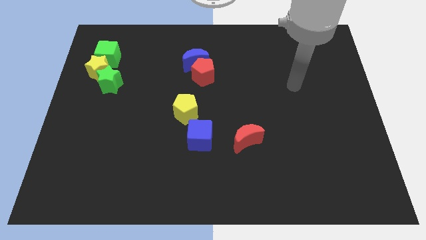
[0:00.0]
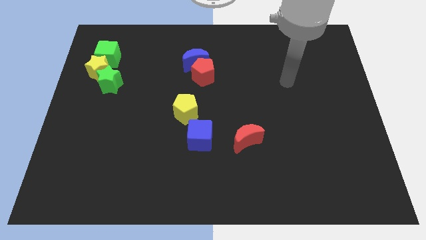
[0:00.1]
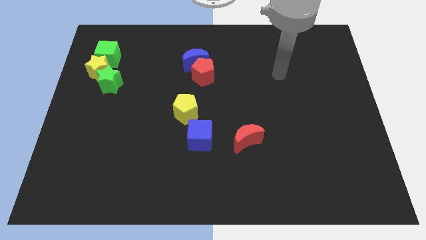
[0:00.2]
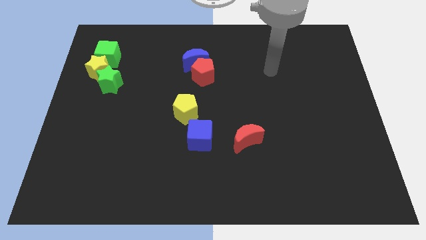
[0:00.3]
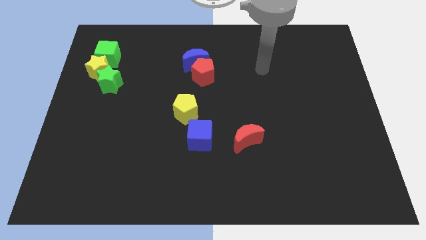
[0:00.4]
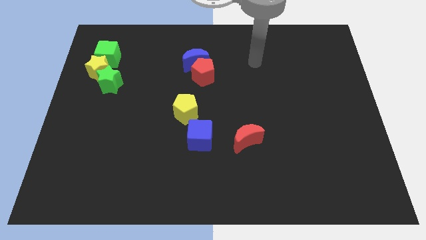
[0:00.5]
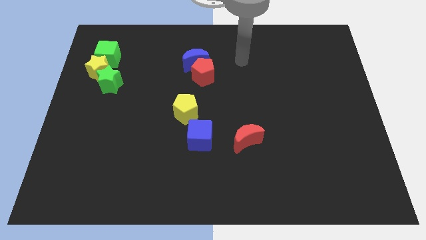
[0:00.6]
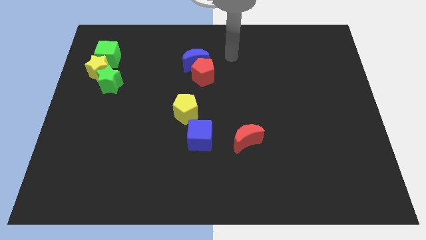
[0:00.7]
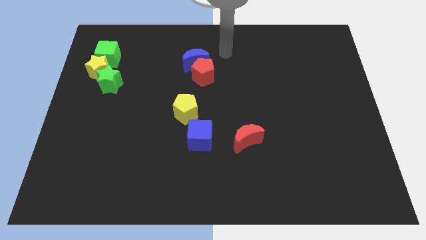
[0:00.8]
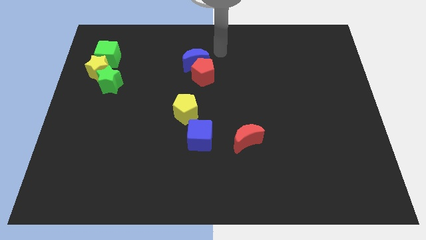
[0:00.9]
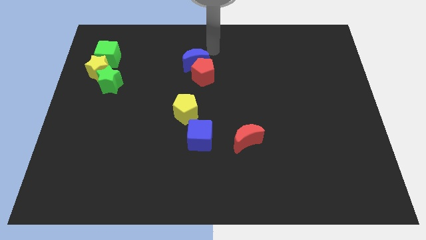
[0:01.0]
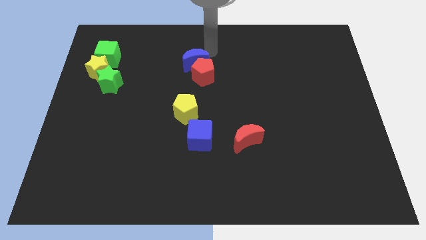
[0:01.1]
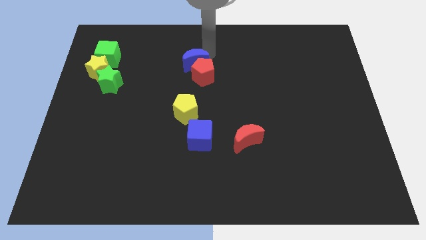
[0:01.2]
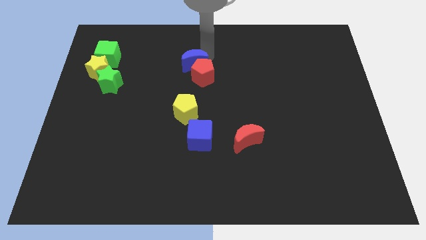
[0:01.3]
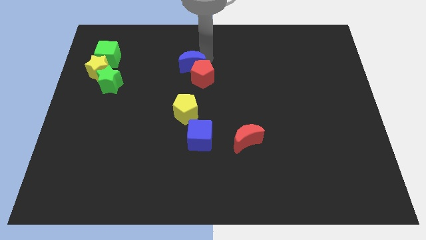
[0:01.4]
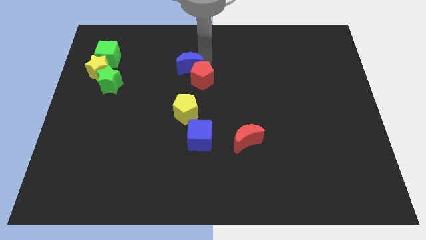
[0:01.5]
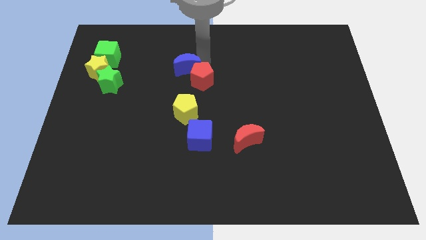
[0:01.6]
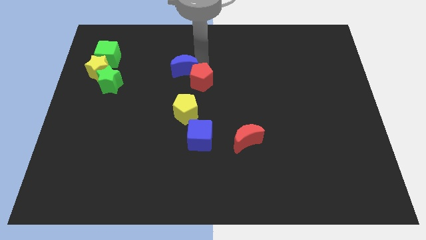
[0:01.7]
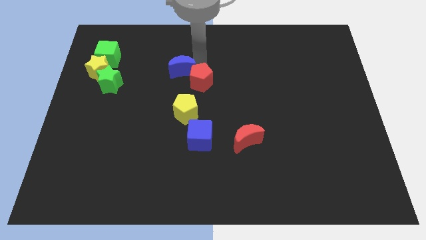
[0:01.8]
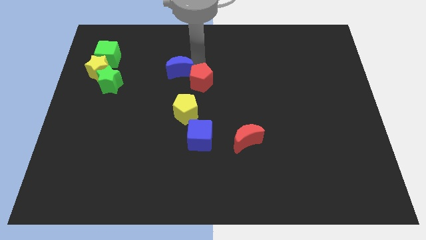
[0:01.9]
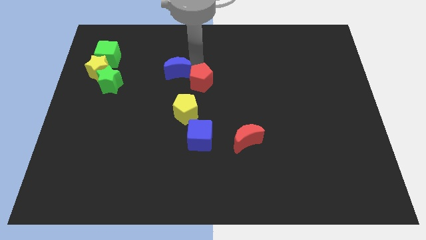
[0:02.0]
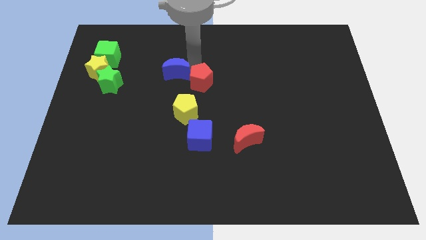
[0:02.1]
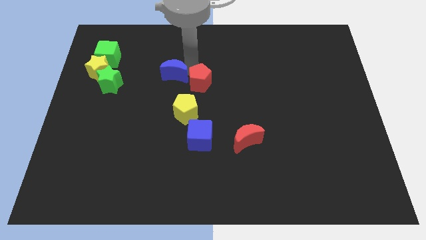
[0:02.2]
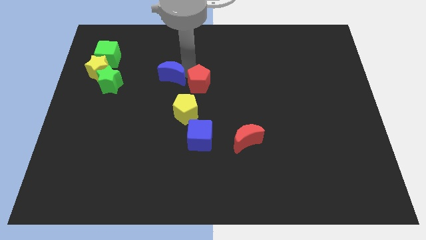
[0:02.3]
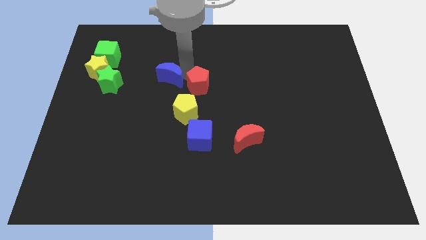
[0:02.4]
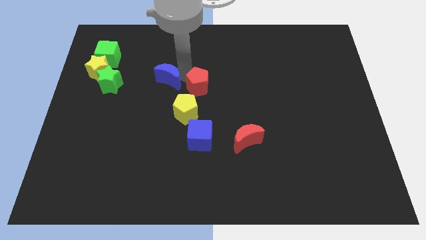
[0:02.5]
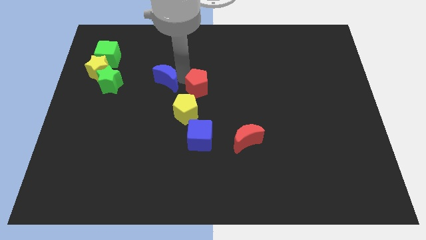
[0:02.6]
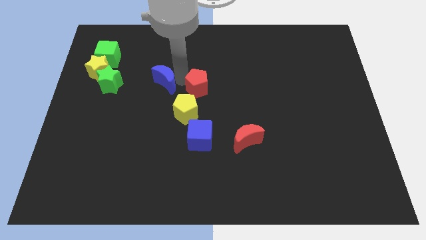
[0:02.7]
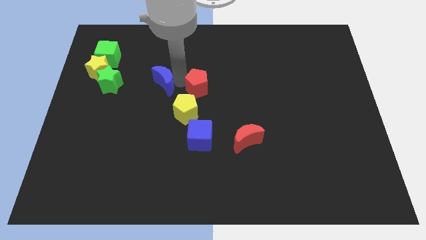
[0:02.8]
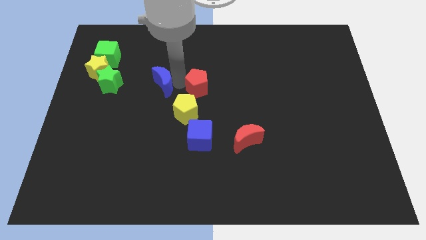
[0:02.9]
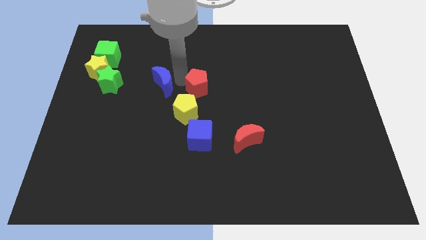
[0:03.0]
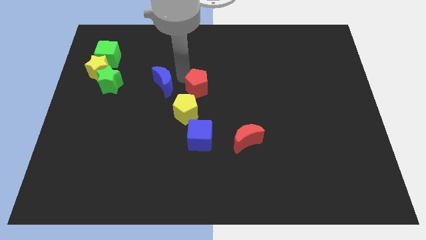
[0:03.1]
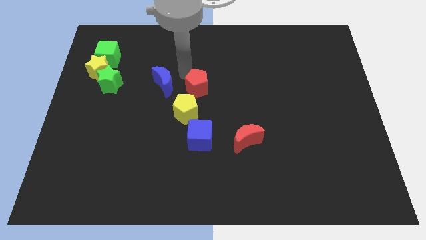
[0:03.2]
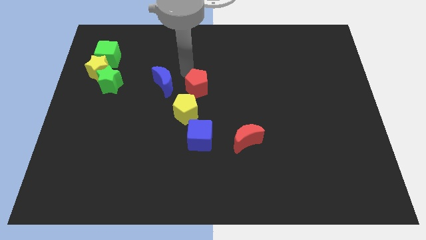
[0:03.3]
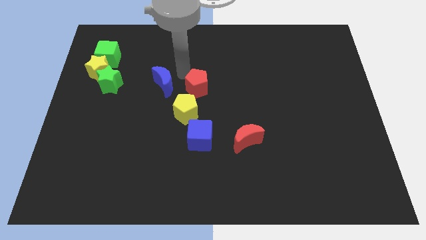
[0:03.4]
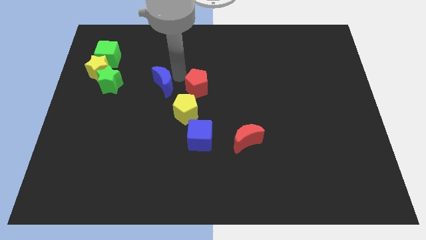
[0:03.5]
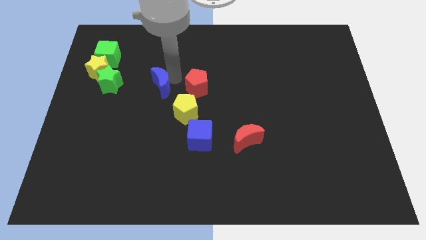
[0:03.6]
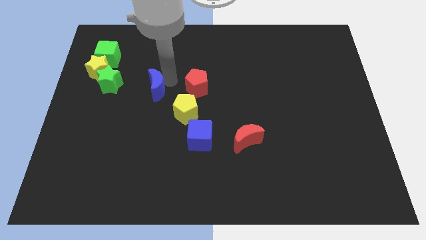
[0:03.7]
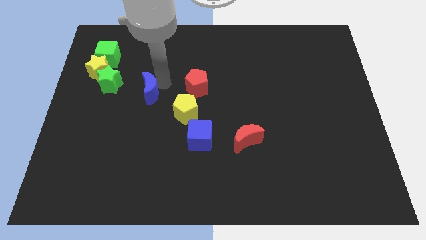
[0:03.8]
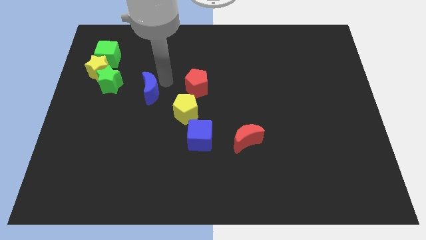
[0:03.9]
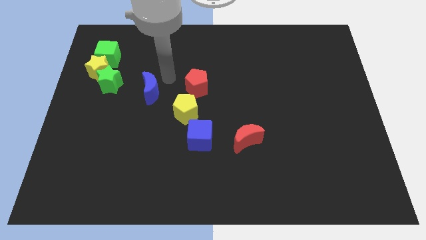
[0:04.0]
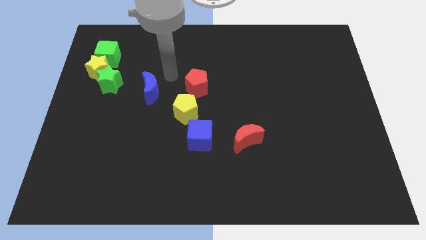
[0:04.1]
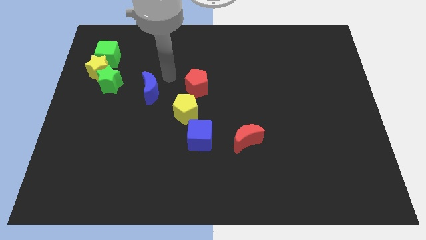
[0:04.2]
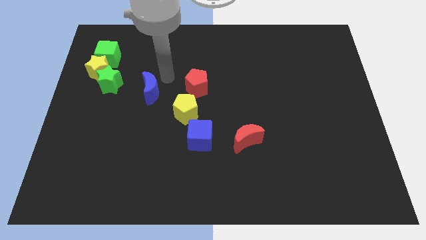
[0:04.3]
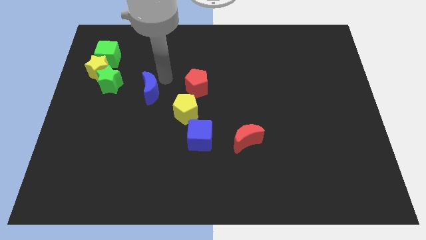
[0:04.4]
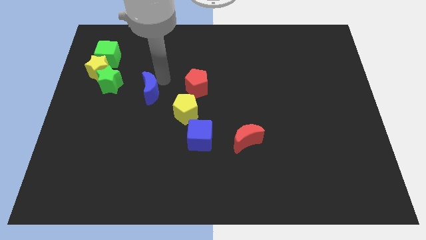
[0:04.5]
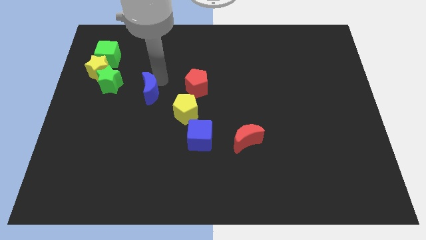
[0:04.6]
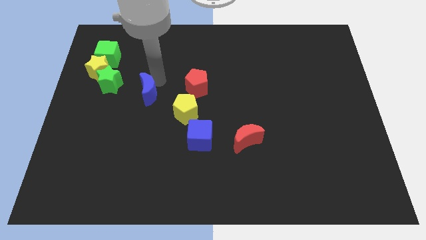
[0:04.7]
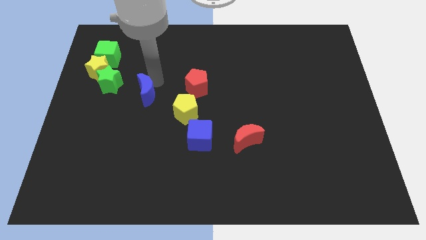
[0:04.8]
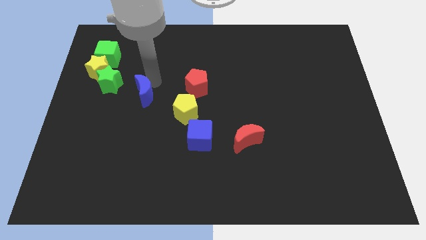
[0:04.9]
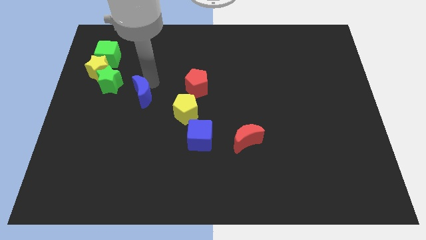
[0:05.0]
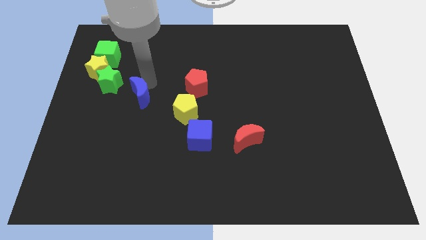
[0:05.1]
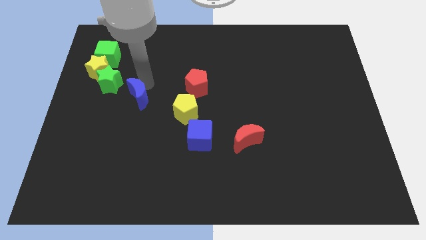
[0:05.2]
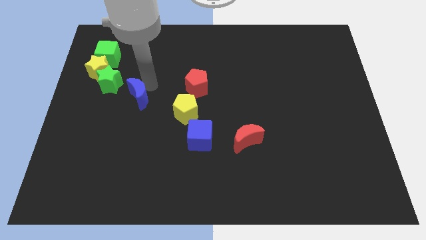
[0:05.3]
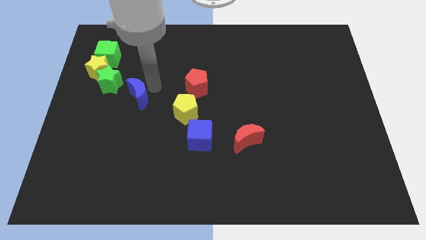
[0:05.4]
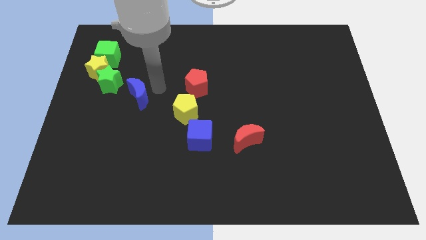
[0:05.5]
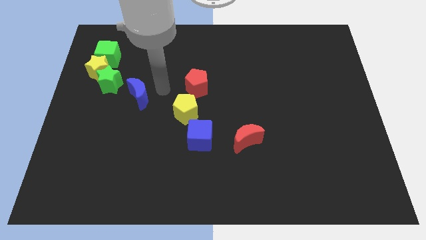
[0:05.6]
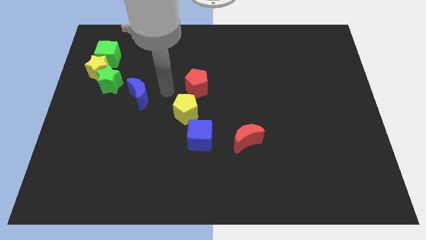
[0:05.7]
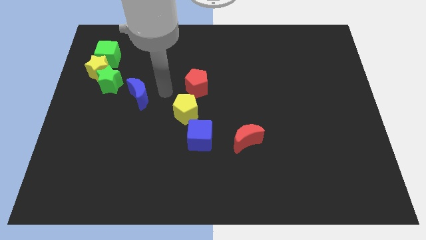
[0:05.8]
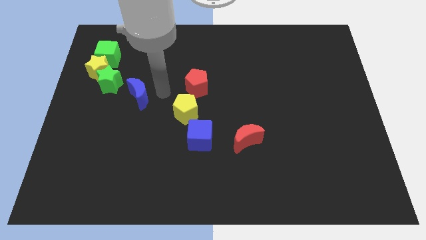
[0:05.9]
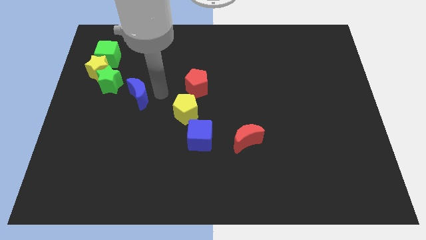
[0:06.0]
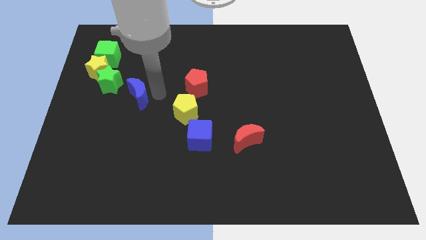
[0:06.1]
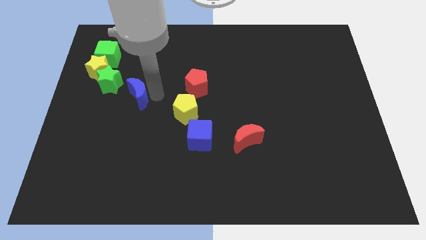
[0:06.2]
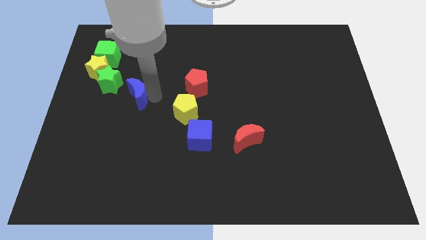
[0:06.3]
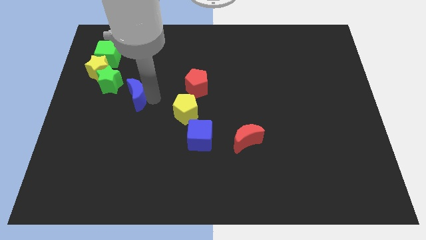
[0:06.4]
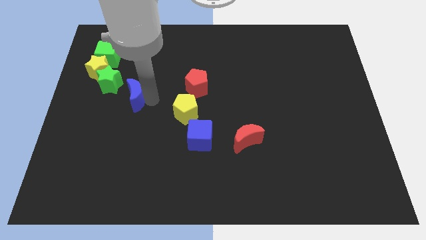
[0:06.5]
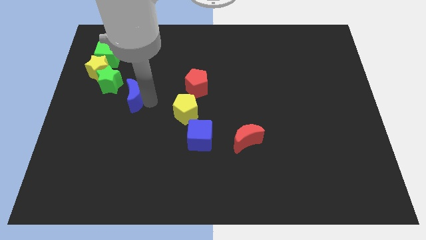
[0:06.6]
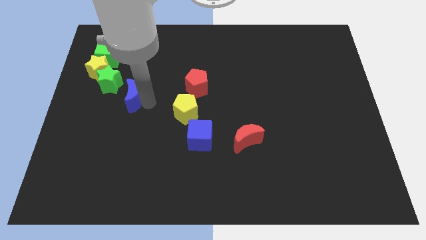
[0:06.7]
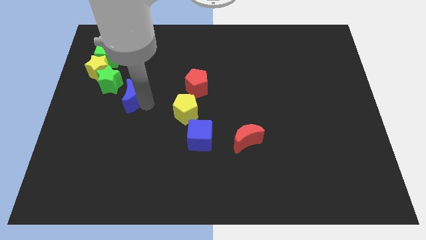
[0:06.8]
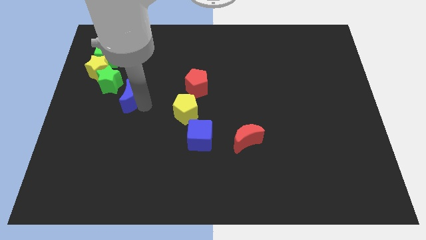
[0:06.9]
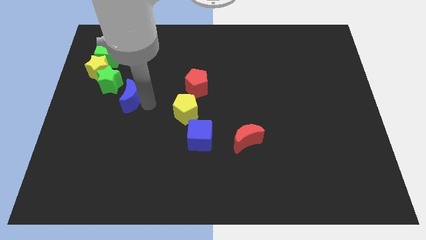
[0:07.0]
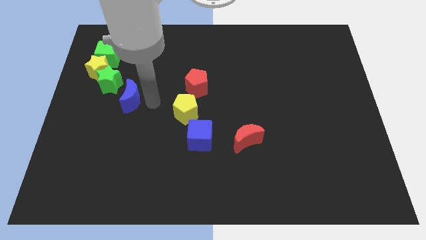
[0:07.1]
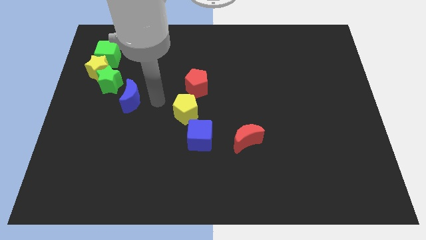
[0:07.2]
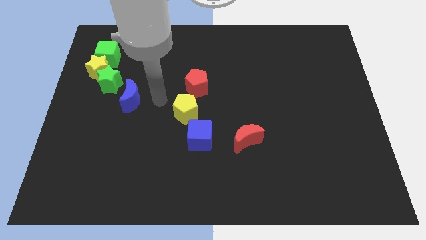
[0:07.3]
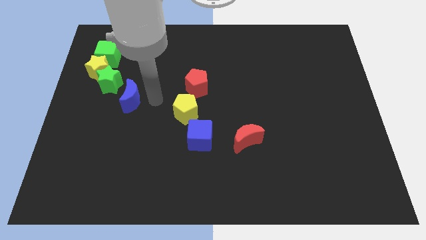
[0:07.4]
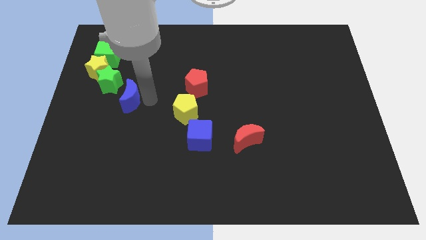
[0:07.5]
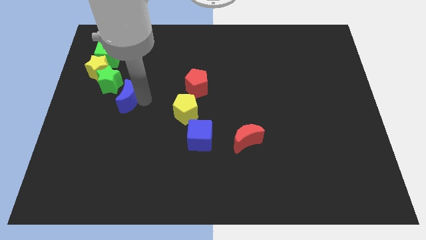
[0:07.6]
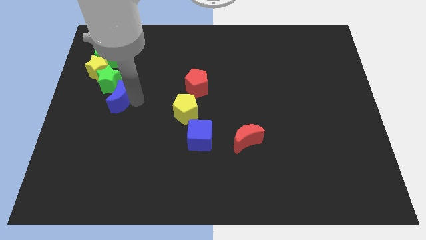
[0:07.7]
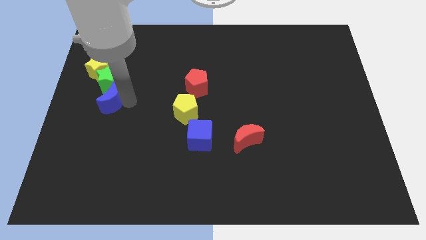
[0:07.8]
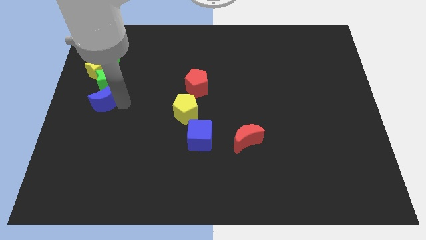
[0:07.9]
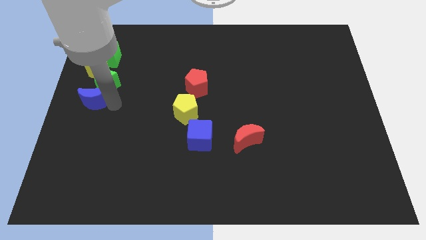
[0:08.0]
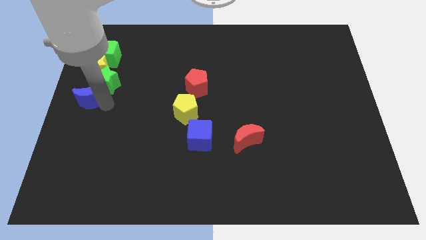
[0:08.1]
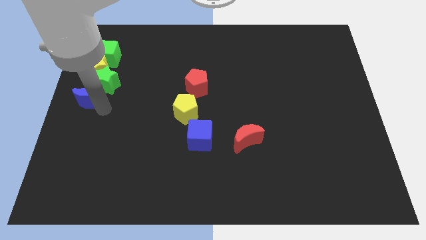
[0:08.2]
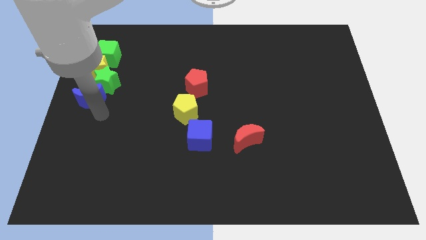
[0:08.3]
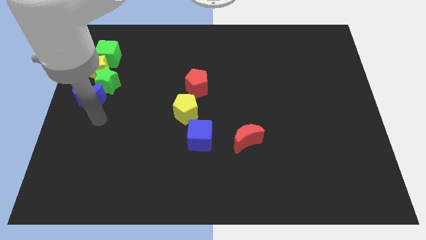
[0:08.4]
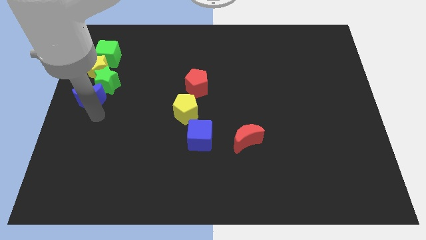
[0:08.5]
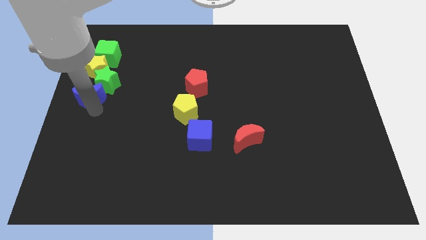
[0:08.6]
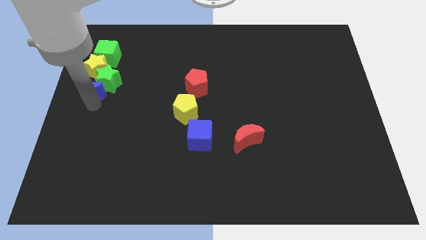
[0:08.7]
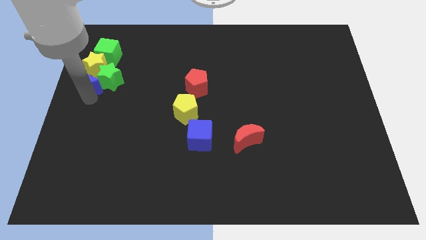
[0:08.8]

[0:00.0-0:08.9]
slide the blue moon next to the yellow star
